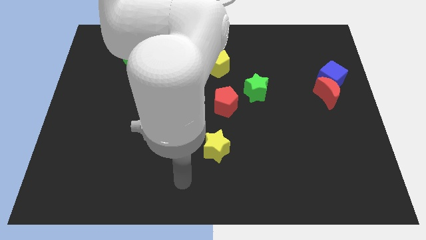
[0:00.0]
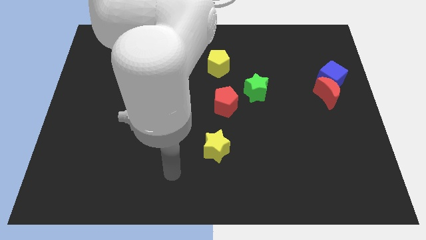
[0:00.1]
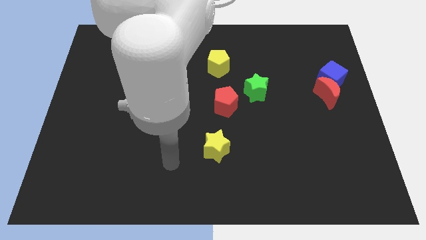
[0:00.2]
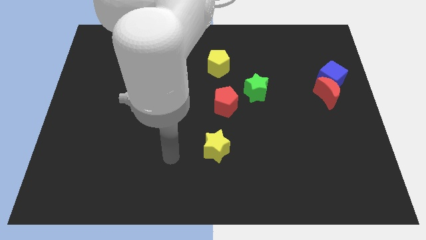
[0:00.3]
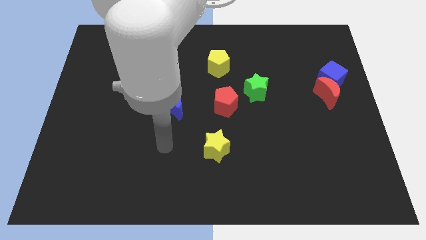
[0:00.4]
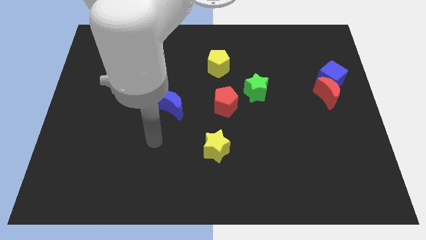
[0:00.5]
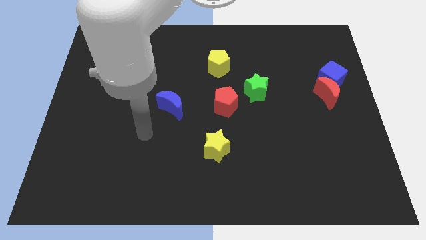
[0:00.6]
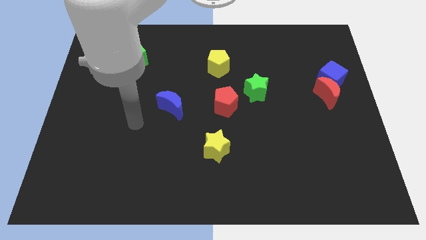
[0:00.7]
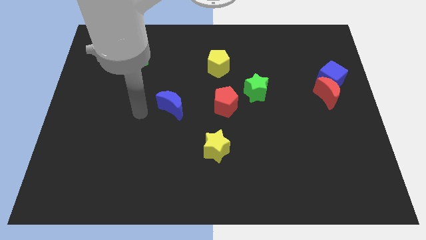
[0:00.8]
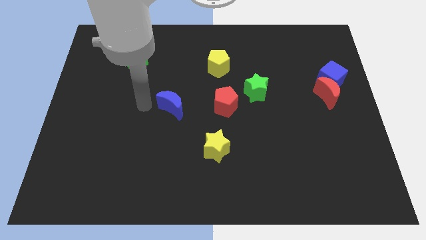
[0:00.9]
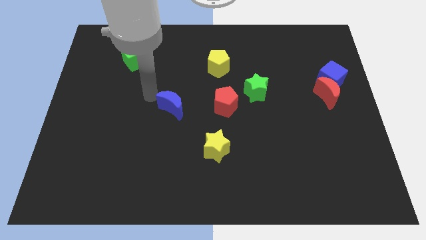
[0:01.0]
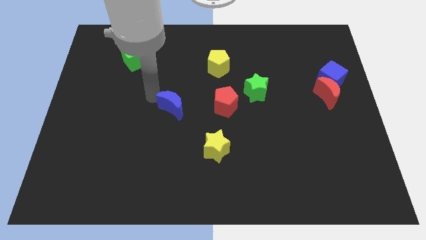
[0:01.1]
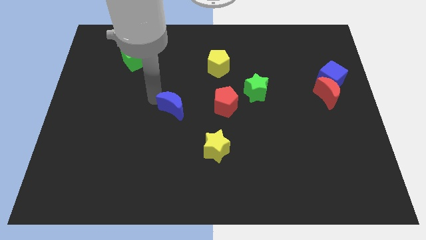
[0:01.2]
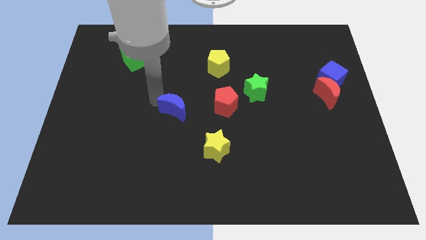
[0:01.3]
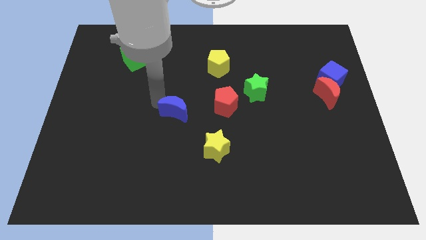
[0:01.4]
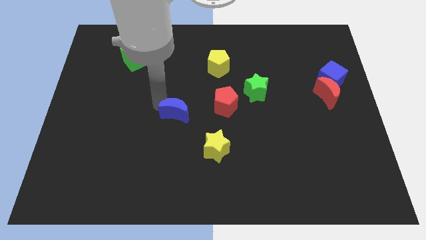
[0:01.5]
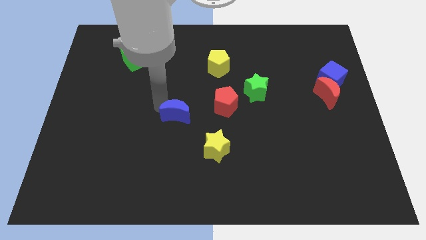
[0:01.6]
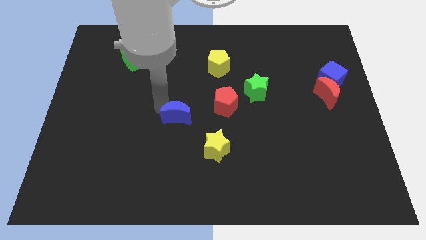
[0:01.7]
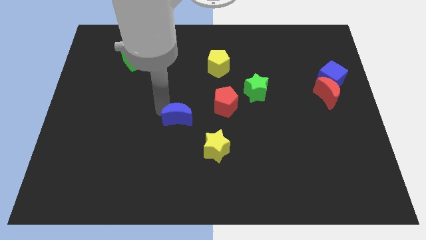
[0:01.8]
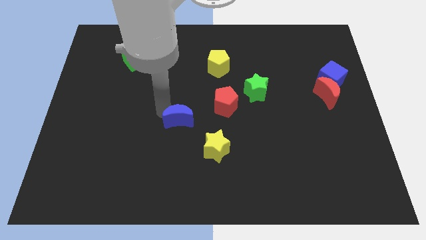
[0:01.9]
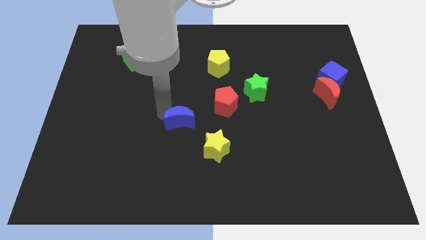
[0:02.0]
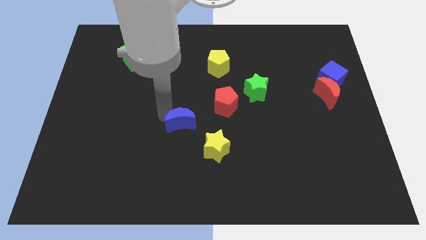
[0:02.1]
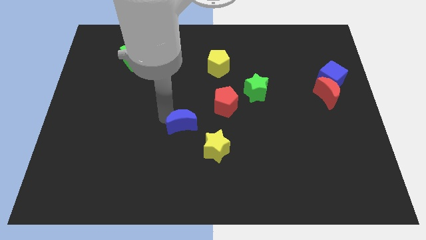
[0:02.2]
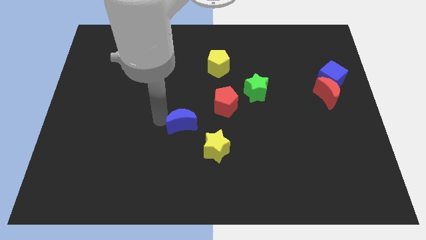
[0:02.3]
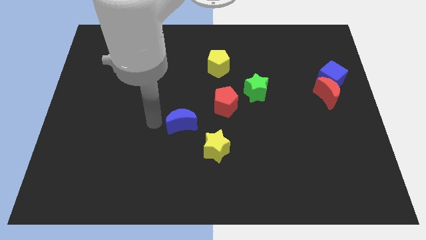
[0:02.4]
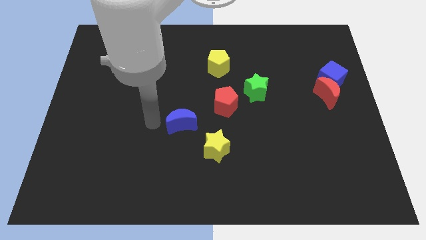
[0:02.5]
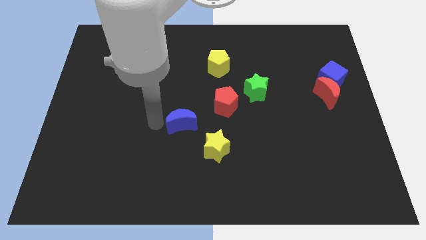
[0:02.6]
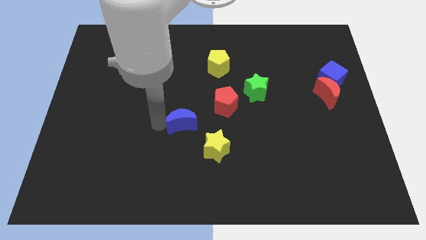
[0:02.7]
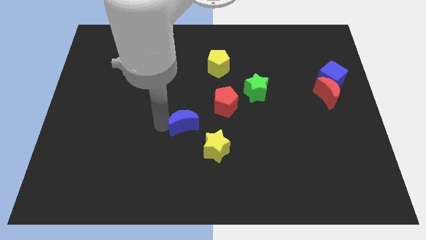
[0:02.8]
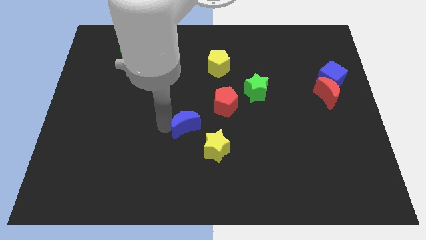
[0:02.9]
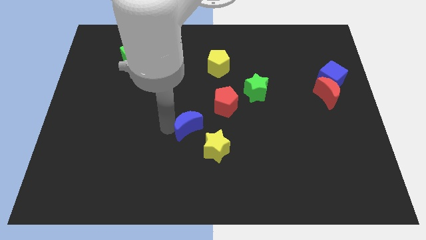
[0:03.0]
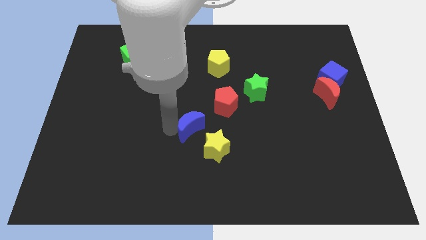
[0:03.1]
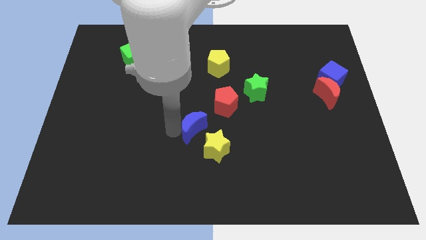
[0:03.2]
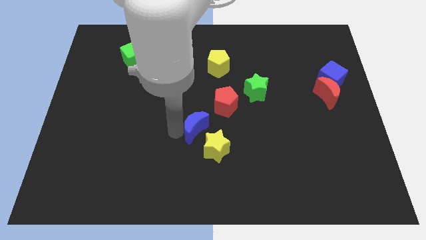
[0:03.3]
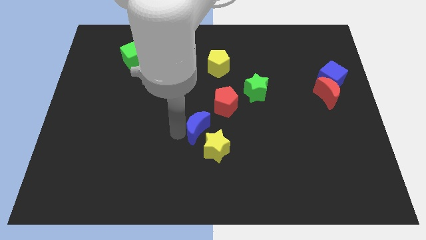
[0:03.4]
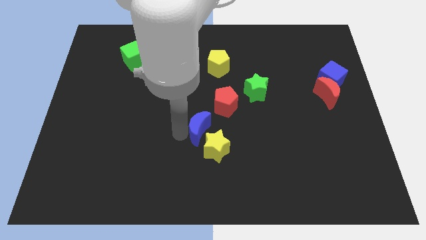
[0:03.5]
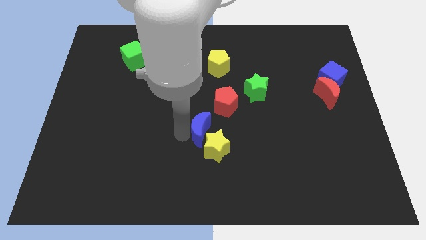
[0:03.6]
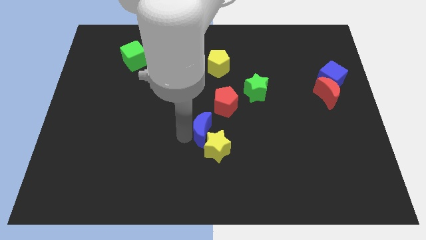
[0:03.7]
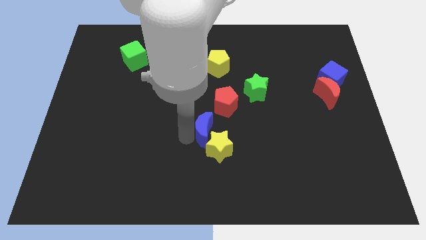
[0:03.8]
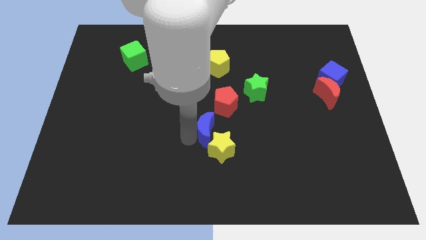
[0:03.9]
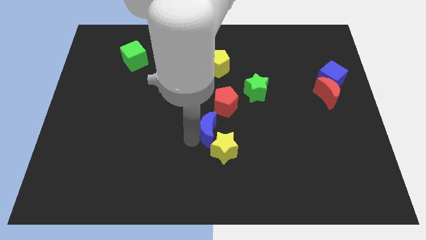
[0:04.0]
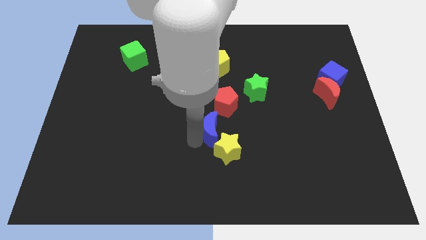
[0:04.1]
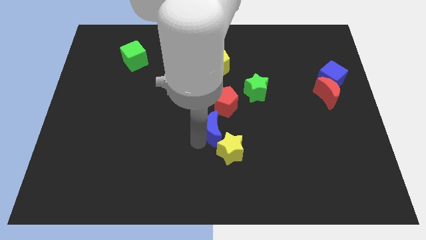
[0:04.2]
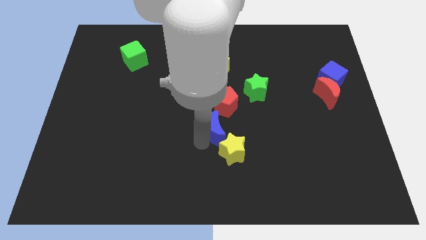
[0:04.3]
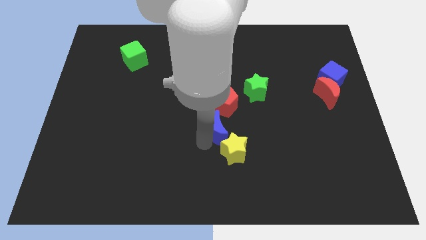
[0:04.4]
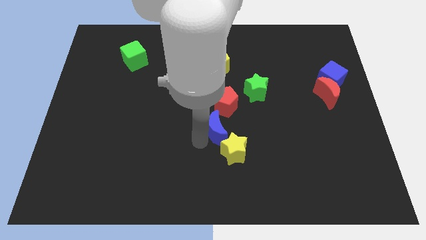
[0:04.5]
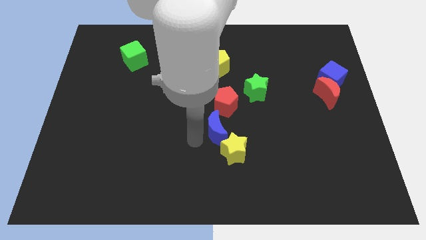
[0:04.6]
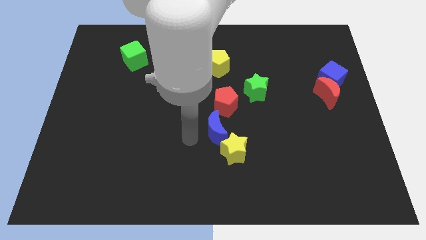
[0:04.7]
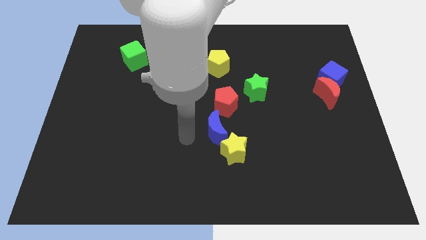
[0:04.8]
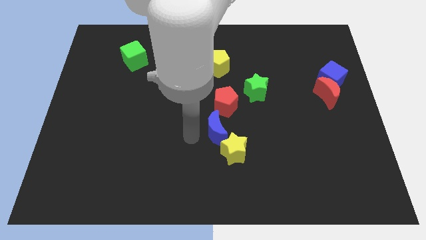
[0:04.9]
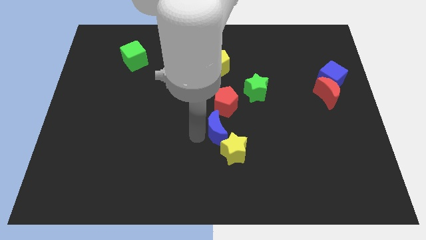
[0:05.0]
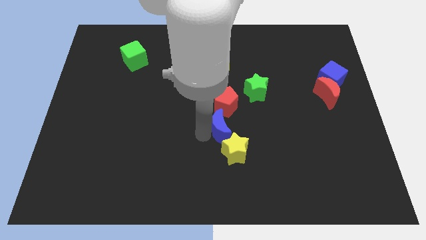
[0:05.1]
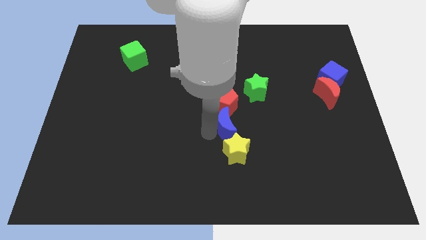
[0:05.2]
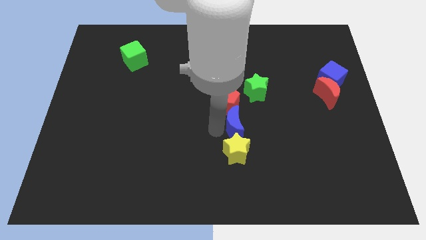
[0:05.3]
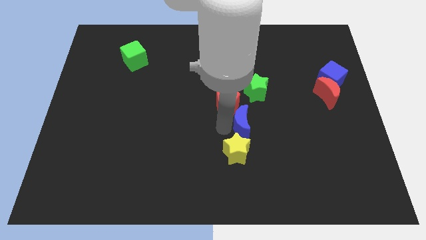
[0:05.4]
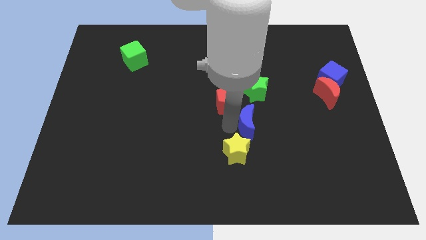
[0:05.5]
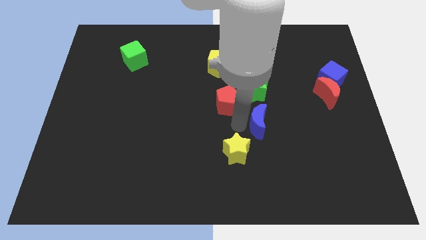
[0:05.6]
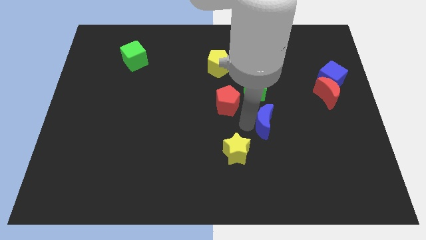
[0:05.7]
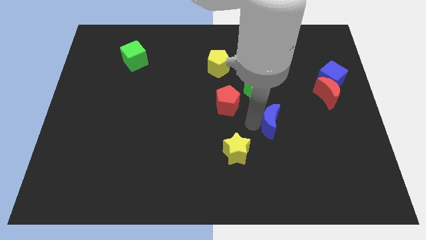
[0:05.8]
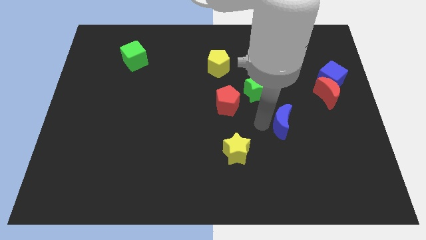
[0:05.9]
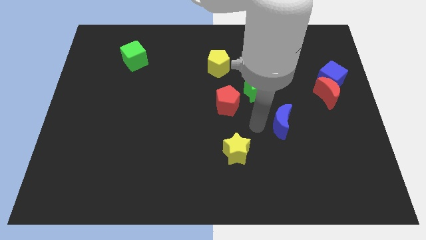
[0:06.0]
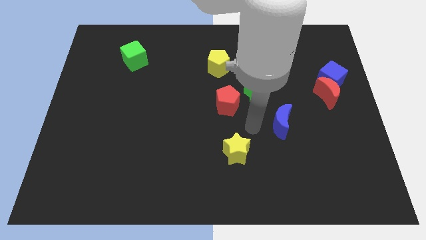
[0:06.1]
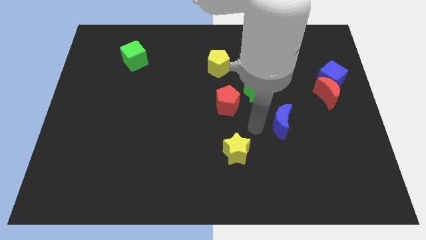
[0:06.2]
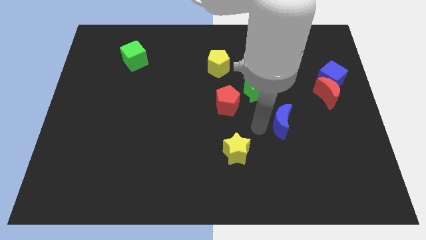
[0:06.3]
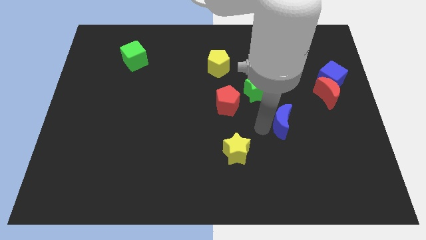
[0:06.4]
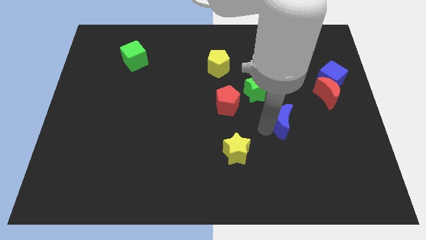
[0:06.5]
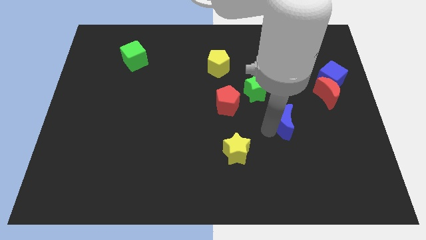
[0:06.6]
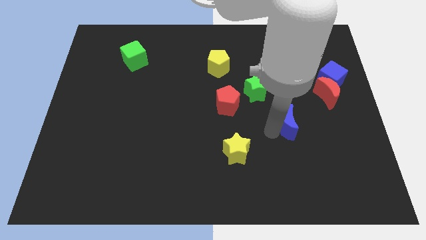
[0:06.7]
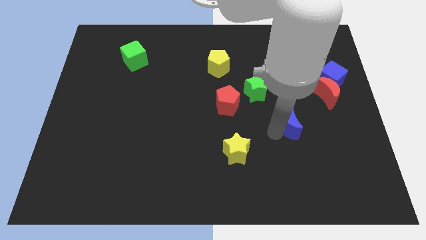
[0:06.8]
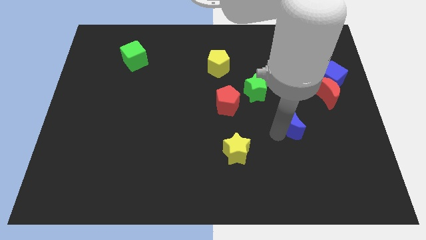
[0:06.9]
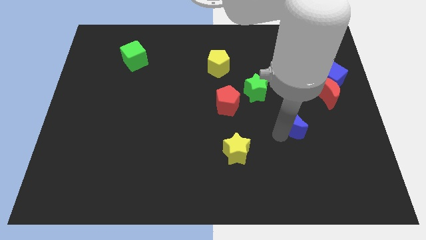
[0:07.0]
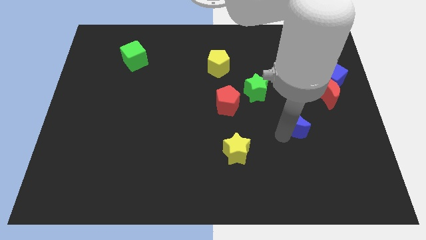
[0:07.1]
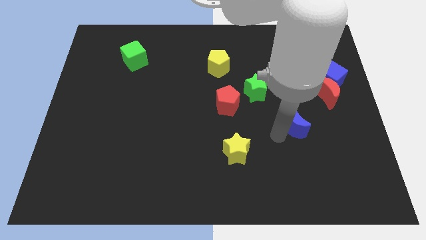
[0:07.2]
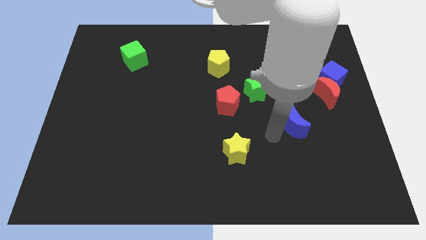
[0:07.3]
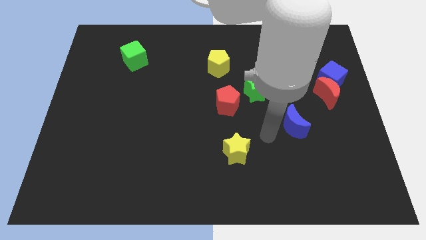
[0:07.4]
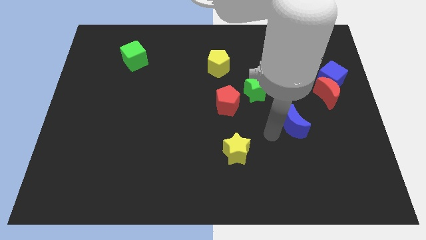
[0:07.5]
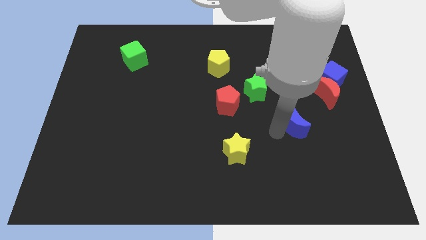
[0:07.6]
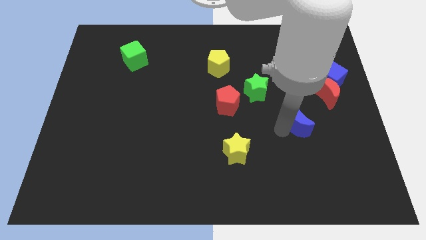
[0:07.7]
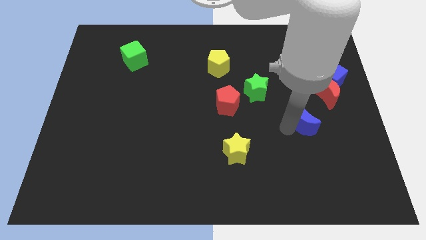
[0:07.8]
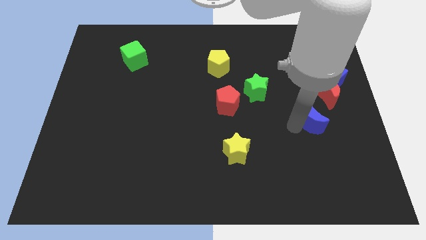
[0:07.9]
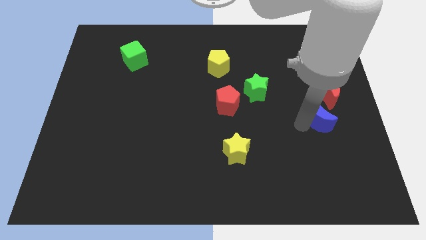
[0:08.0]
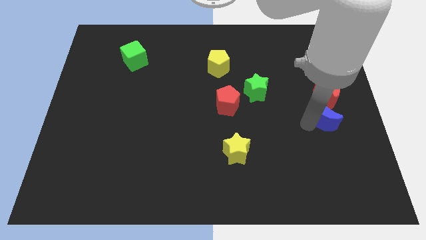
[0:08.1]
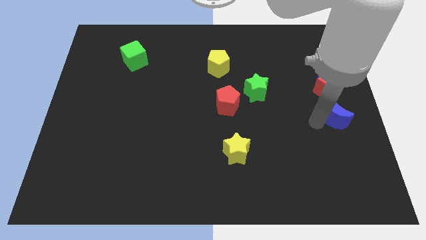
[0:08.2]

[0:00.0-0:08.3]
put the blue moon to the right side of the board
